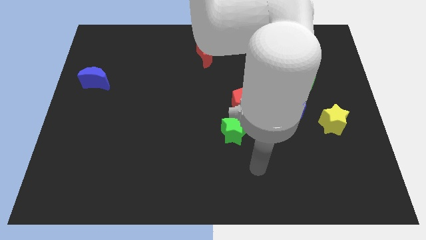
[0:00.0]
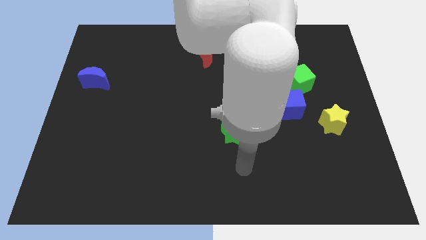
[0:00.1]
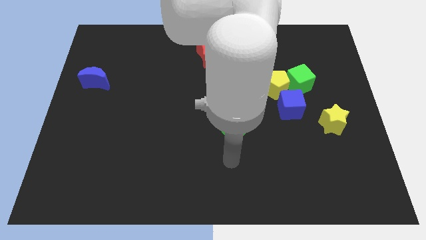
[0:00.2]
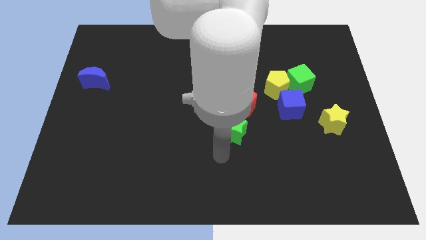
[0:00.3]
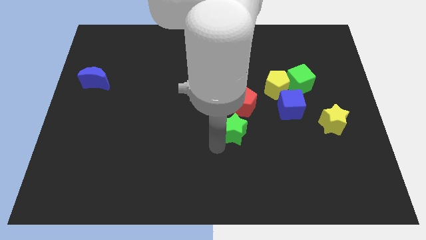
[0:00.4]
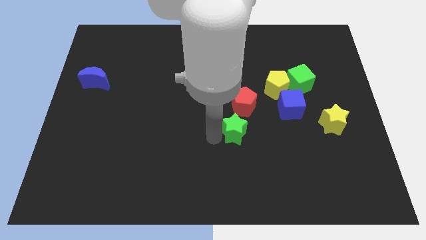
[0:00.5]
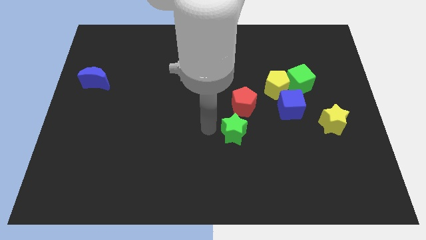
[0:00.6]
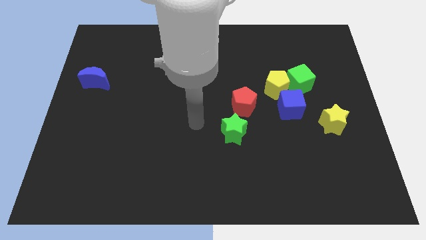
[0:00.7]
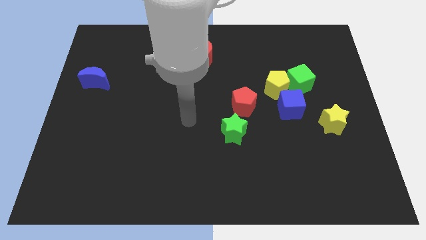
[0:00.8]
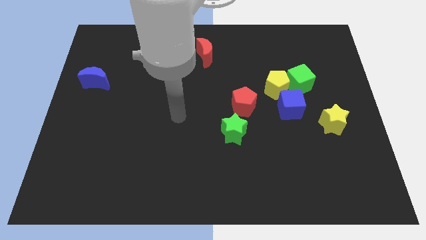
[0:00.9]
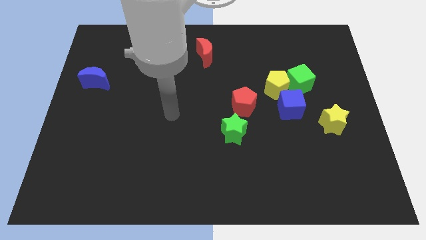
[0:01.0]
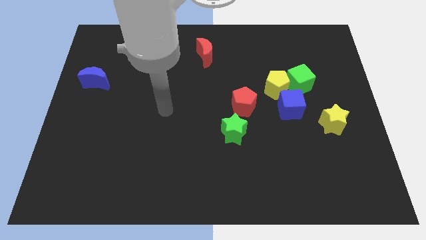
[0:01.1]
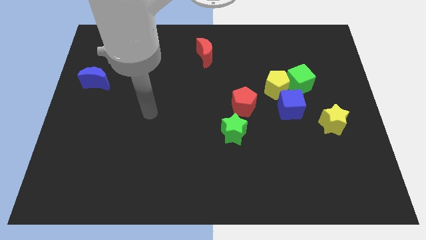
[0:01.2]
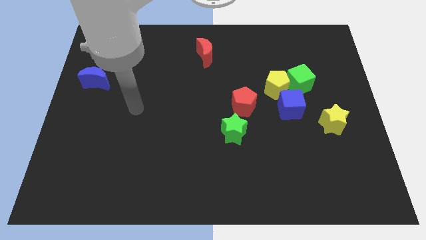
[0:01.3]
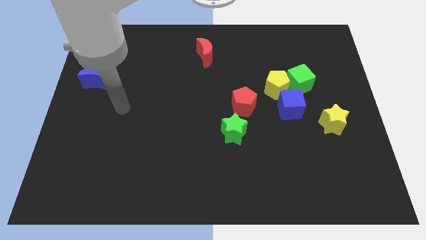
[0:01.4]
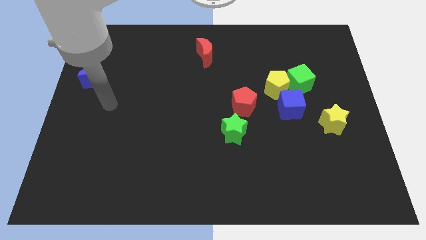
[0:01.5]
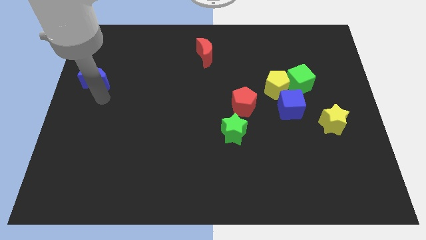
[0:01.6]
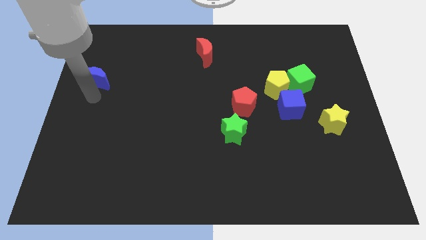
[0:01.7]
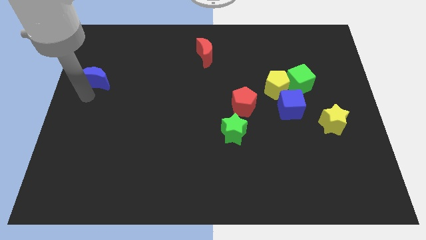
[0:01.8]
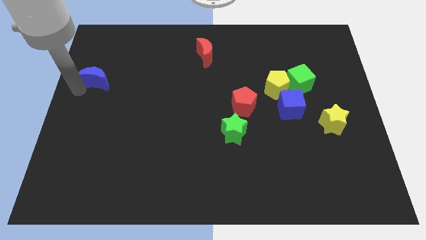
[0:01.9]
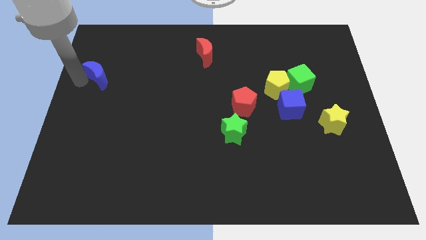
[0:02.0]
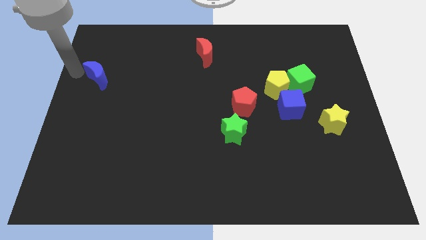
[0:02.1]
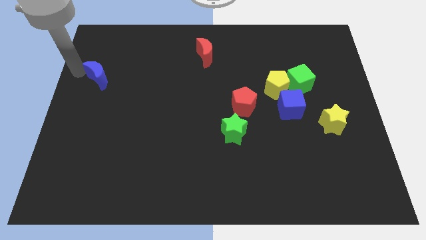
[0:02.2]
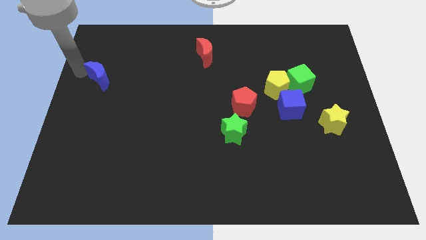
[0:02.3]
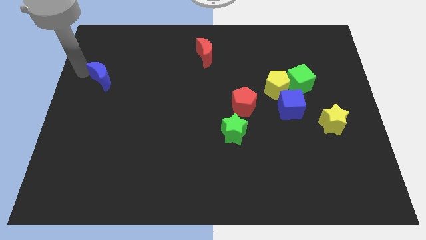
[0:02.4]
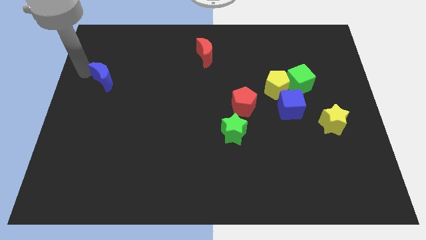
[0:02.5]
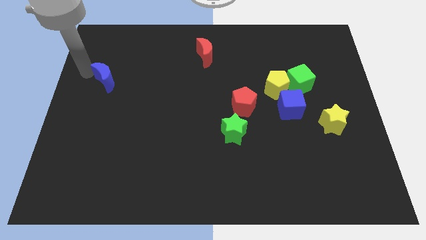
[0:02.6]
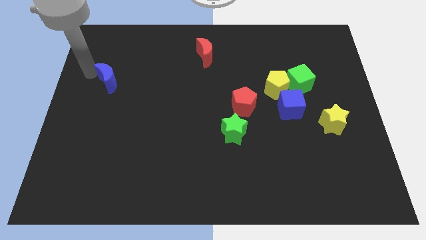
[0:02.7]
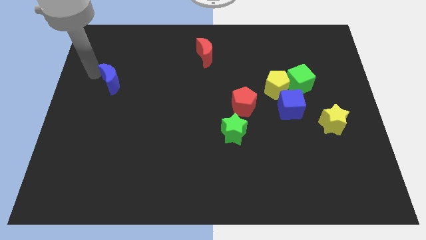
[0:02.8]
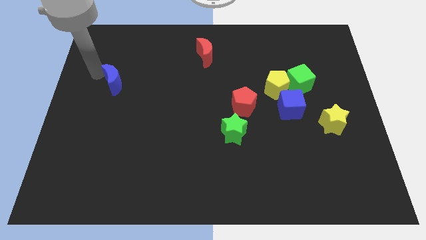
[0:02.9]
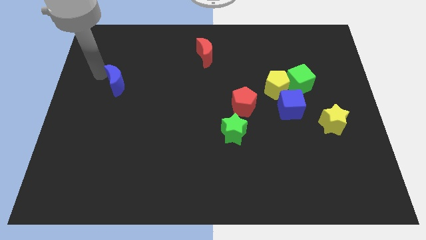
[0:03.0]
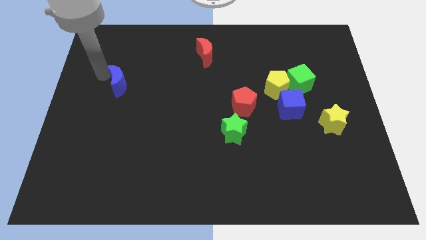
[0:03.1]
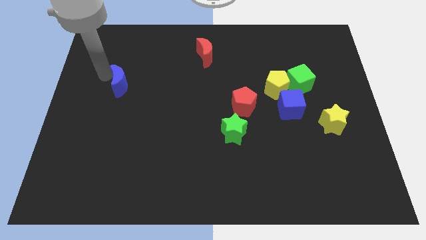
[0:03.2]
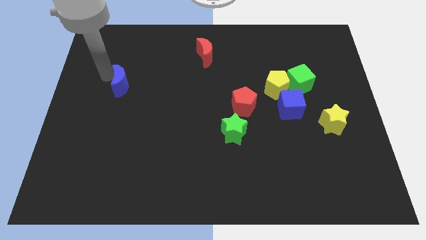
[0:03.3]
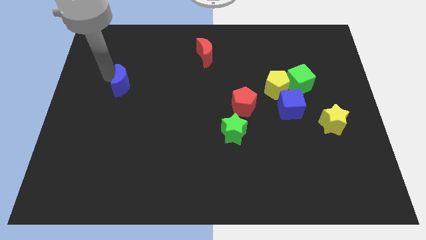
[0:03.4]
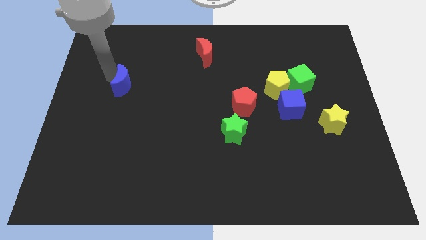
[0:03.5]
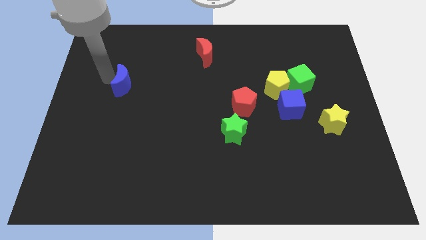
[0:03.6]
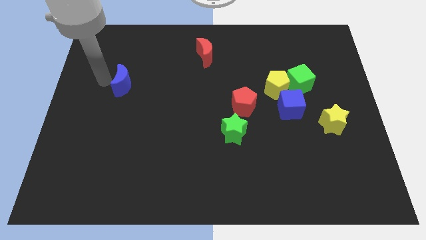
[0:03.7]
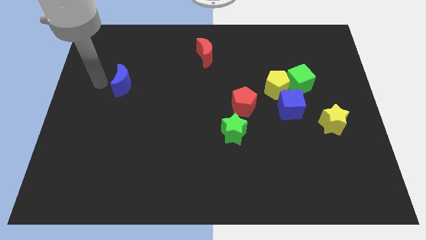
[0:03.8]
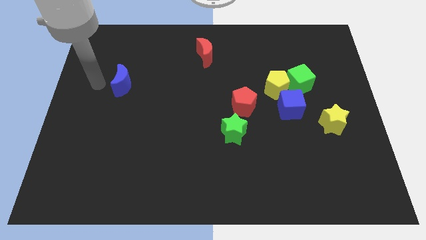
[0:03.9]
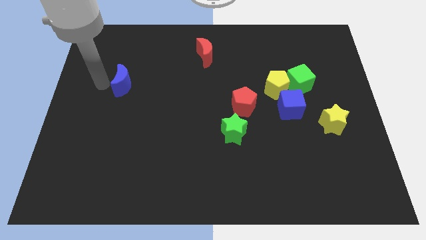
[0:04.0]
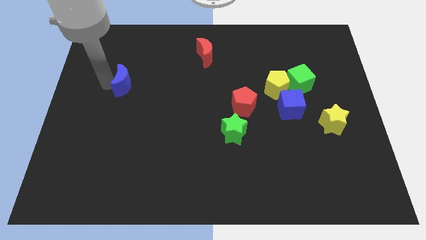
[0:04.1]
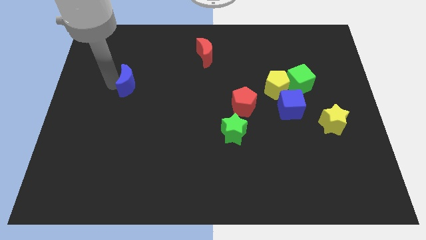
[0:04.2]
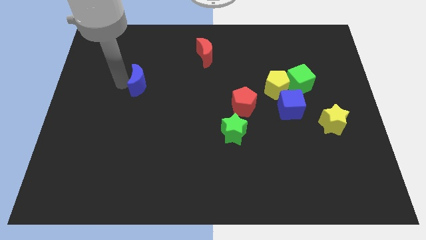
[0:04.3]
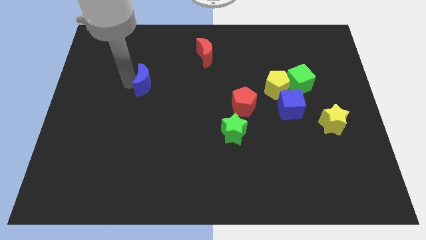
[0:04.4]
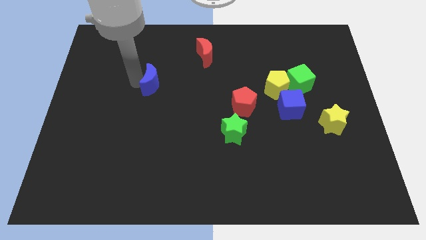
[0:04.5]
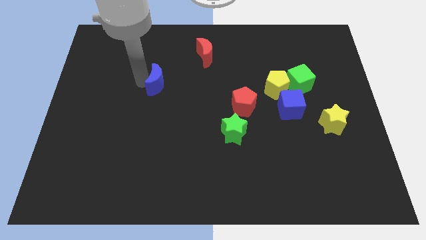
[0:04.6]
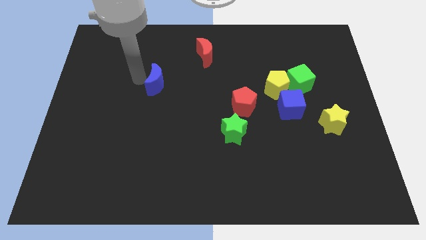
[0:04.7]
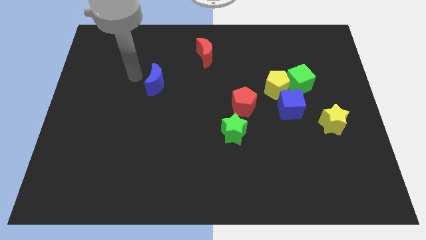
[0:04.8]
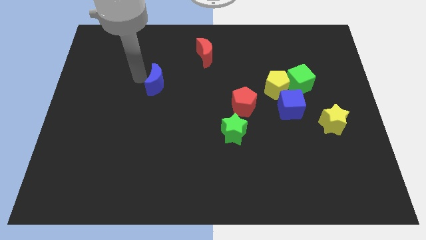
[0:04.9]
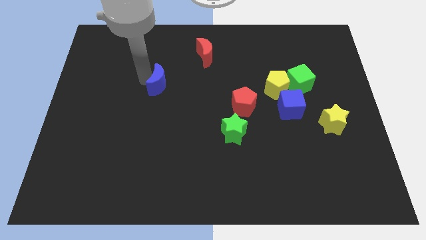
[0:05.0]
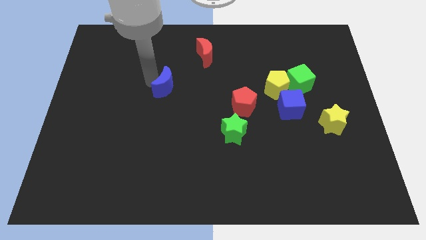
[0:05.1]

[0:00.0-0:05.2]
push the blue moon to the center

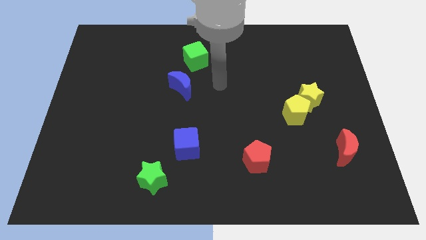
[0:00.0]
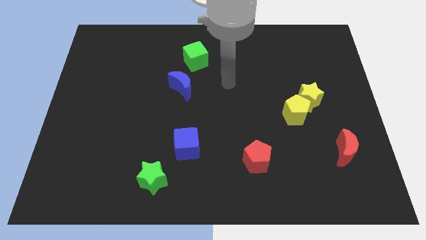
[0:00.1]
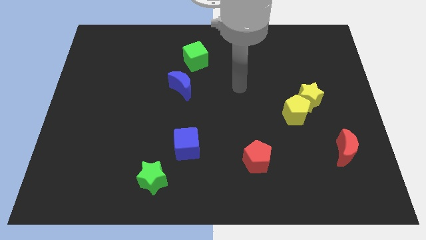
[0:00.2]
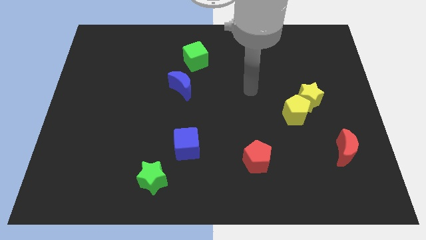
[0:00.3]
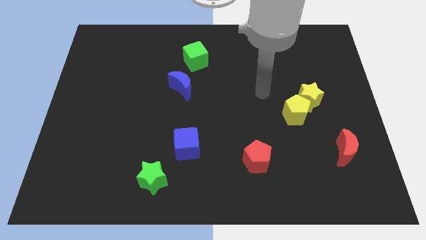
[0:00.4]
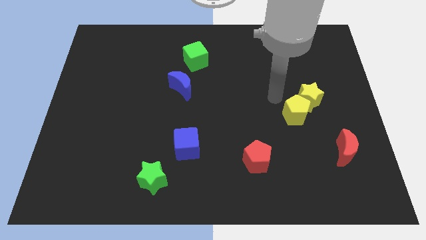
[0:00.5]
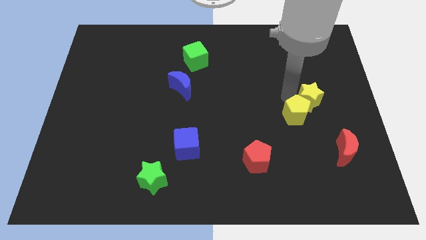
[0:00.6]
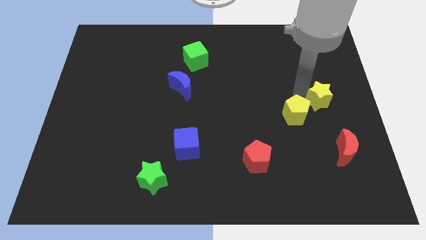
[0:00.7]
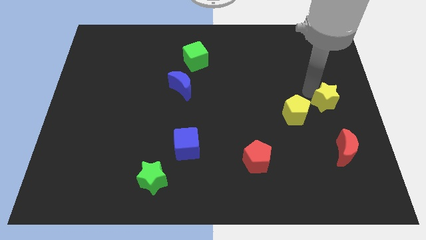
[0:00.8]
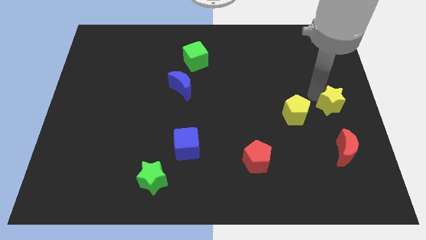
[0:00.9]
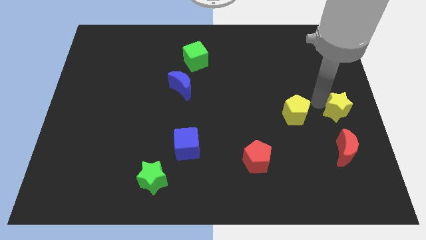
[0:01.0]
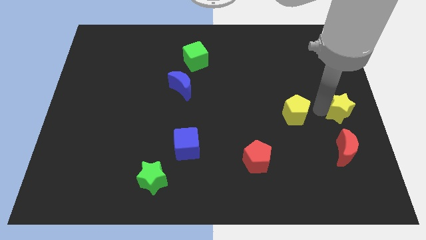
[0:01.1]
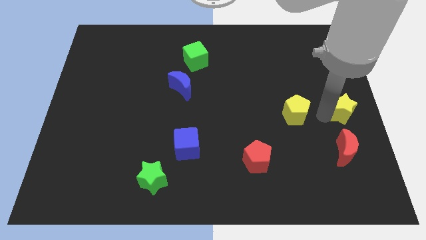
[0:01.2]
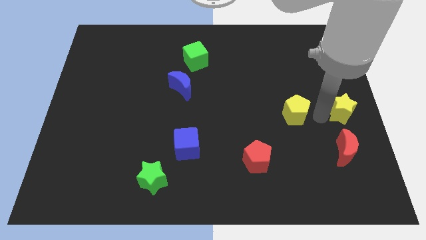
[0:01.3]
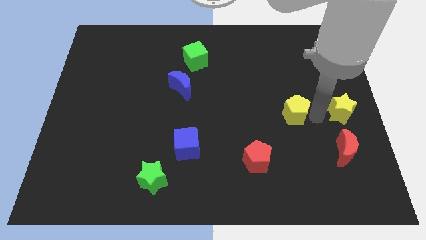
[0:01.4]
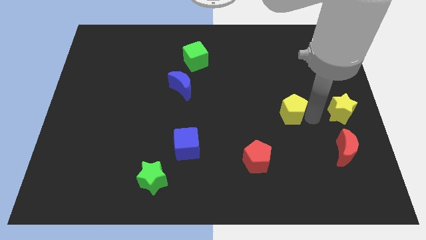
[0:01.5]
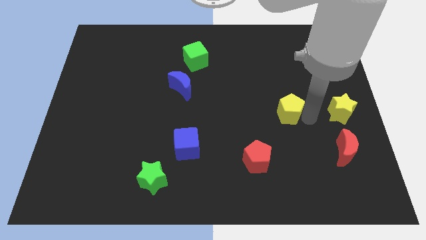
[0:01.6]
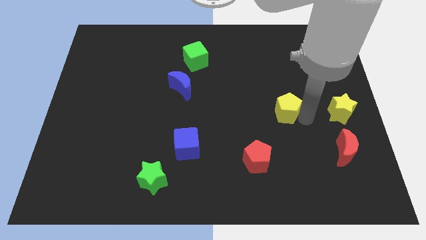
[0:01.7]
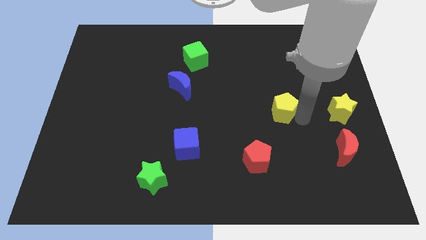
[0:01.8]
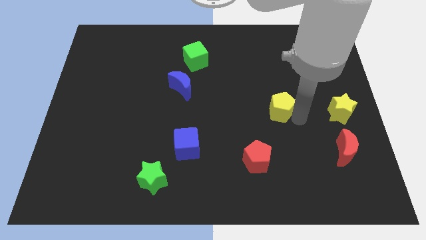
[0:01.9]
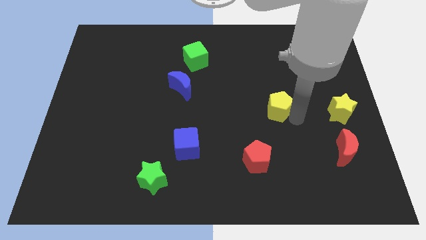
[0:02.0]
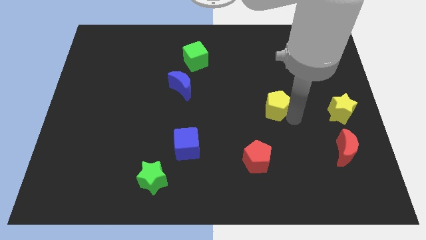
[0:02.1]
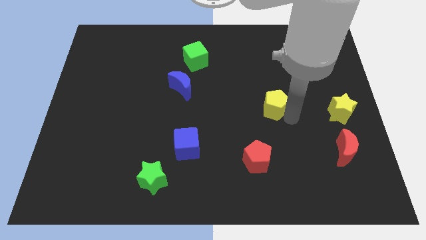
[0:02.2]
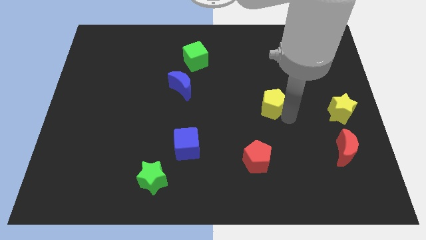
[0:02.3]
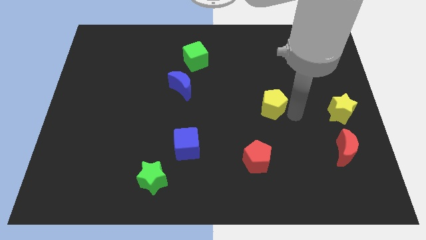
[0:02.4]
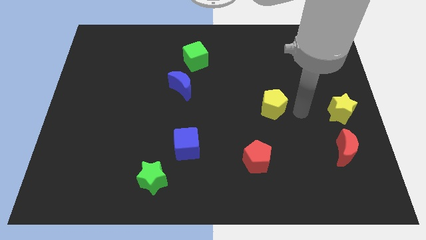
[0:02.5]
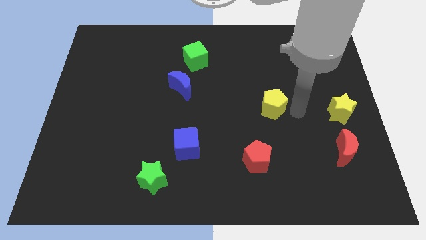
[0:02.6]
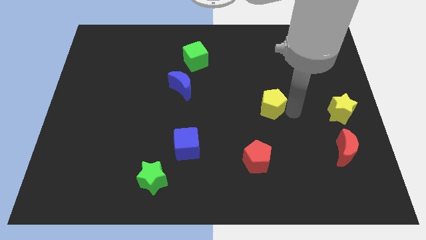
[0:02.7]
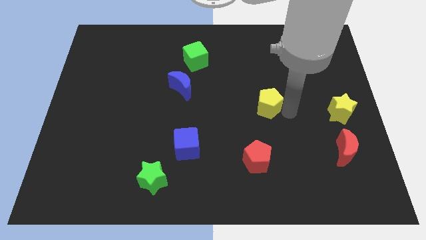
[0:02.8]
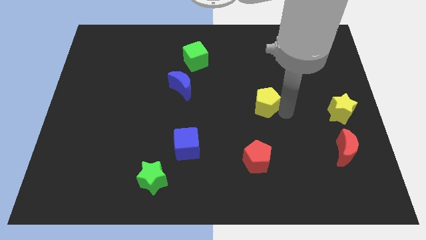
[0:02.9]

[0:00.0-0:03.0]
push the yellow pentagon to the center
